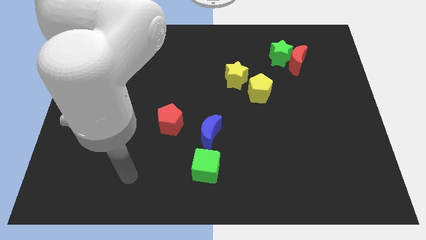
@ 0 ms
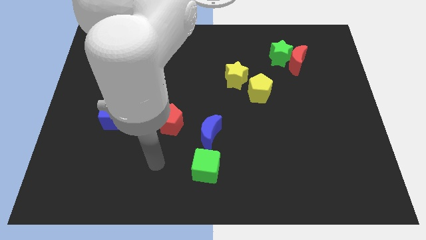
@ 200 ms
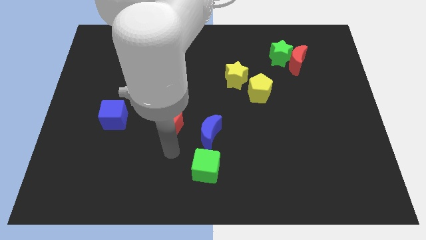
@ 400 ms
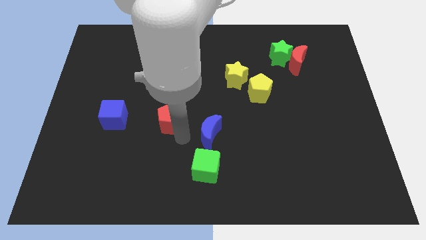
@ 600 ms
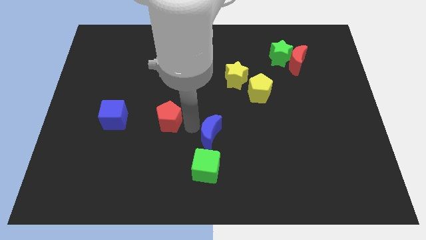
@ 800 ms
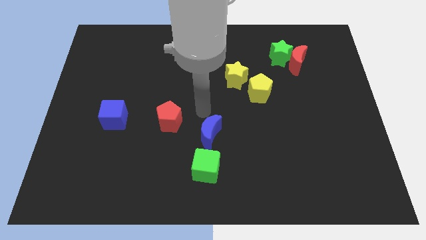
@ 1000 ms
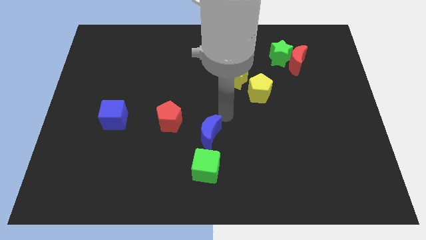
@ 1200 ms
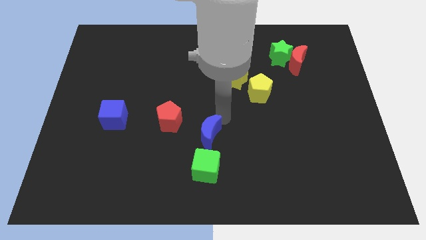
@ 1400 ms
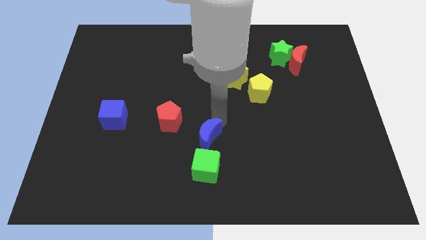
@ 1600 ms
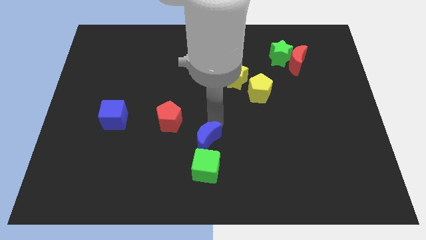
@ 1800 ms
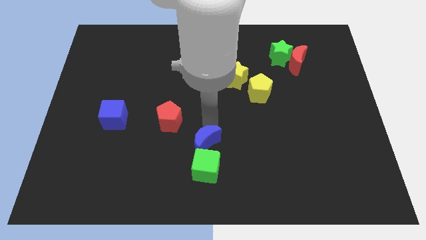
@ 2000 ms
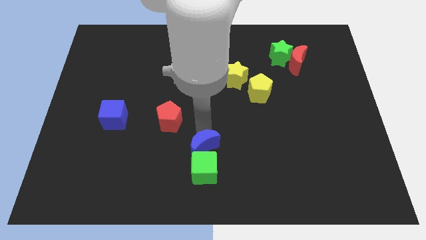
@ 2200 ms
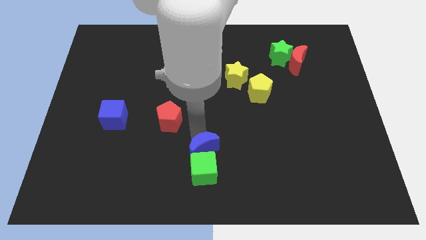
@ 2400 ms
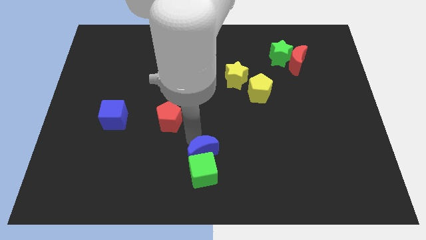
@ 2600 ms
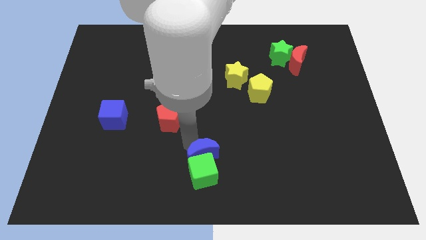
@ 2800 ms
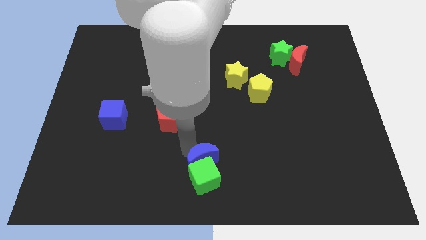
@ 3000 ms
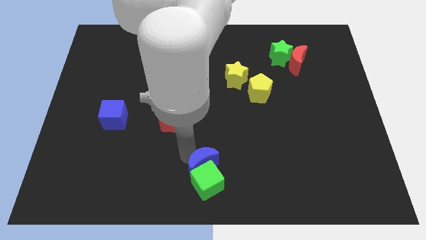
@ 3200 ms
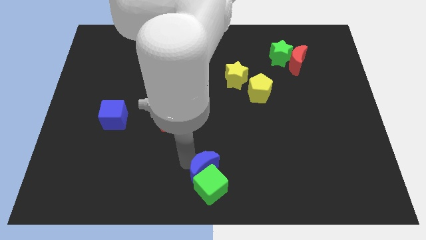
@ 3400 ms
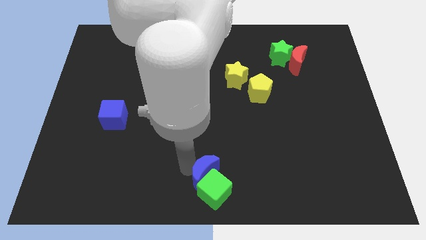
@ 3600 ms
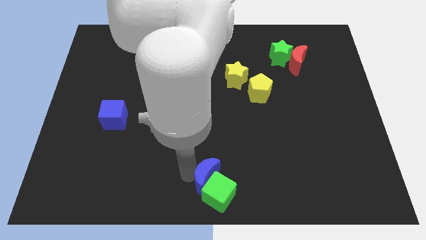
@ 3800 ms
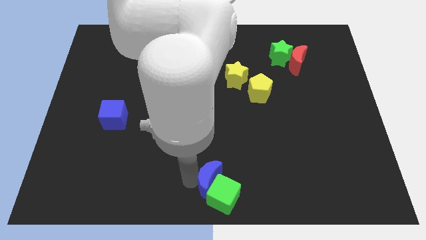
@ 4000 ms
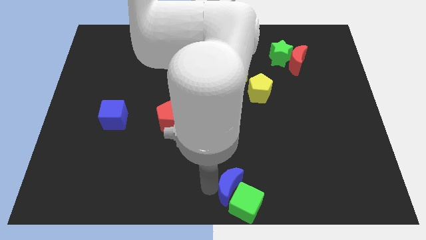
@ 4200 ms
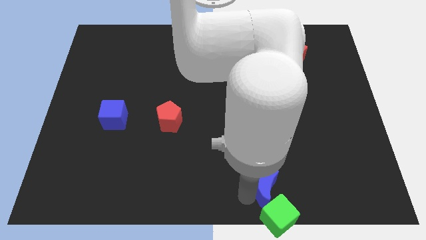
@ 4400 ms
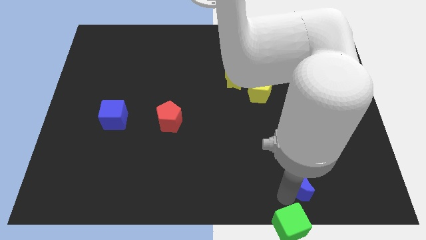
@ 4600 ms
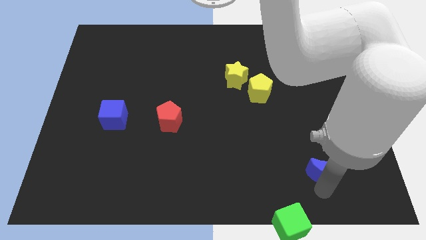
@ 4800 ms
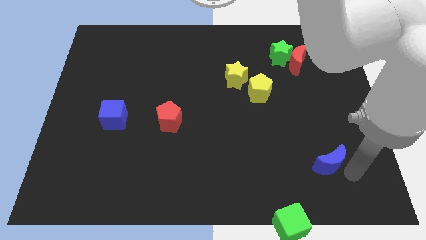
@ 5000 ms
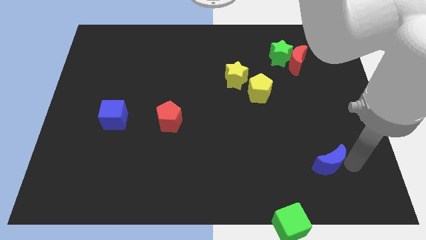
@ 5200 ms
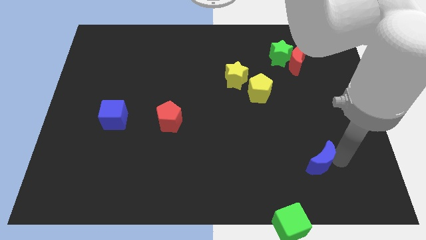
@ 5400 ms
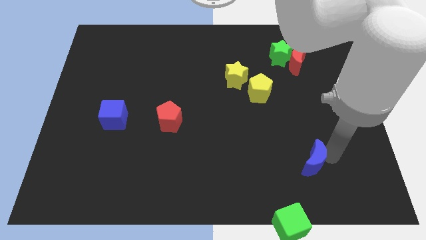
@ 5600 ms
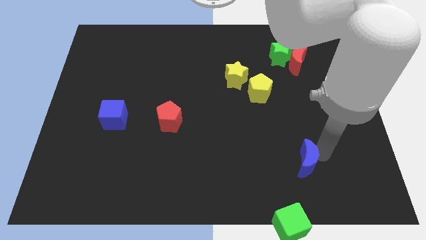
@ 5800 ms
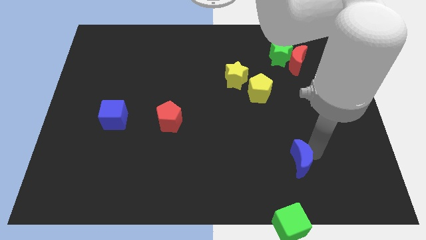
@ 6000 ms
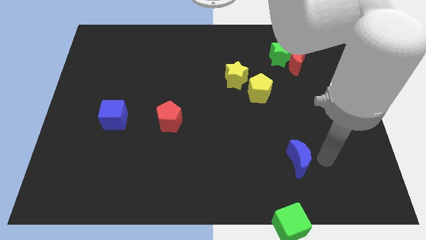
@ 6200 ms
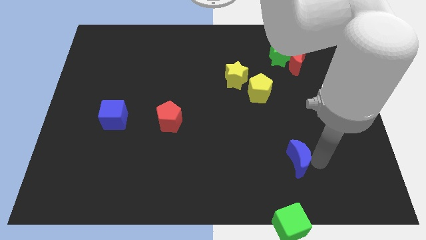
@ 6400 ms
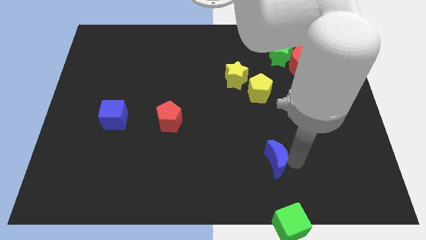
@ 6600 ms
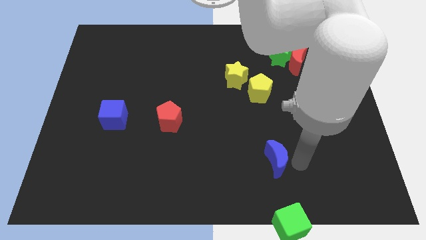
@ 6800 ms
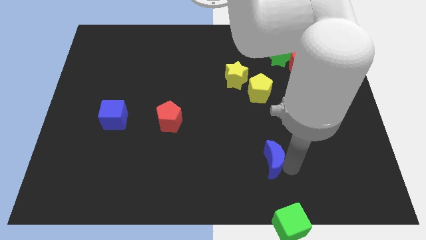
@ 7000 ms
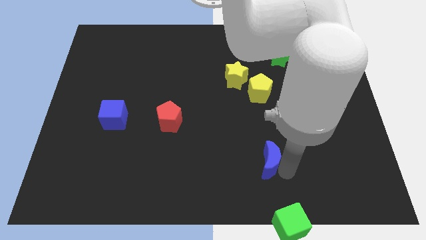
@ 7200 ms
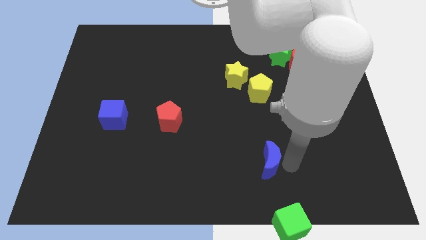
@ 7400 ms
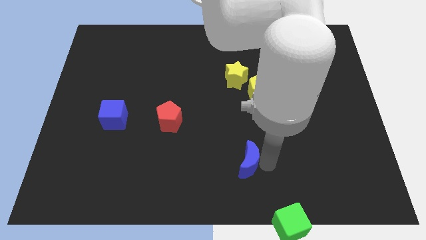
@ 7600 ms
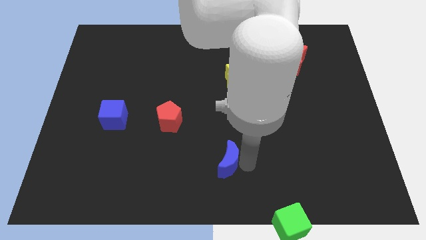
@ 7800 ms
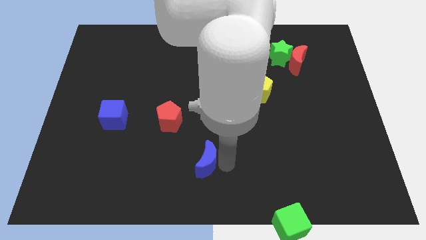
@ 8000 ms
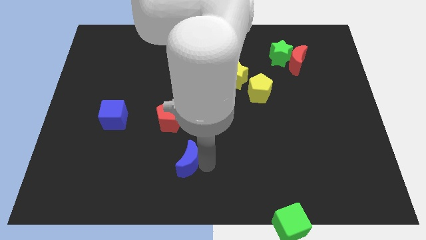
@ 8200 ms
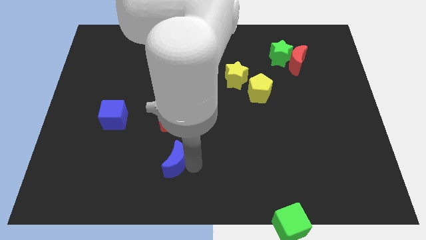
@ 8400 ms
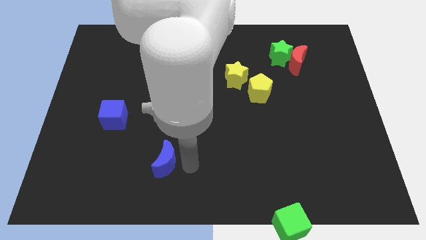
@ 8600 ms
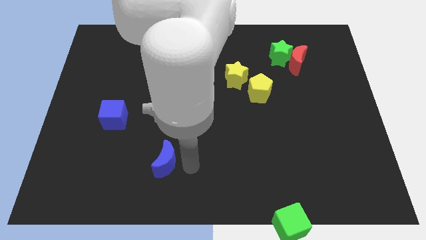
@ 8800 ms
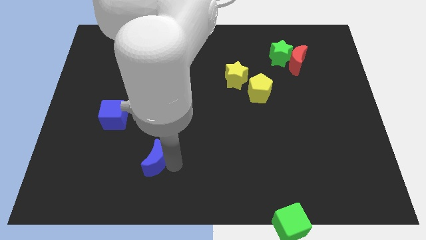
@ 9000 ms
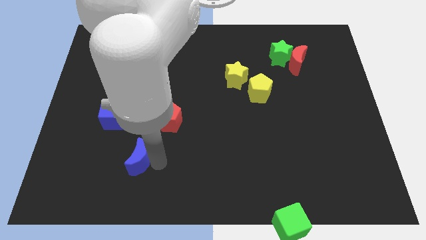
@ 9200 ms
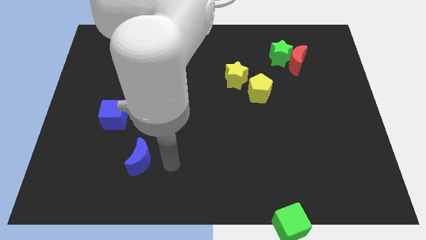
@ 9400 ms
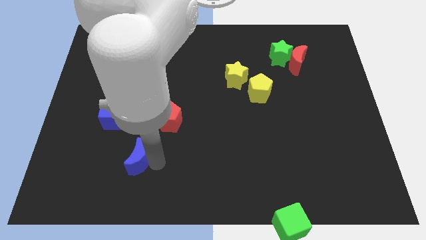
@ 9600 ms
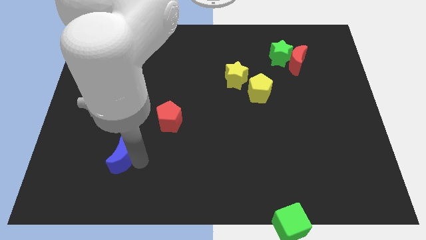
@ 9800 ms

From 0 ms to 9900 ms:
slide the blue moon to the bottom of the blue cube

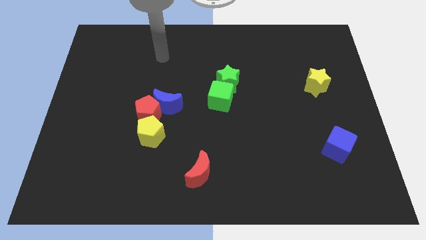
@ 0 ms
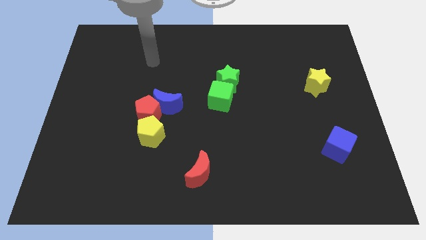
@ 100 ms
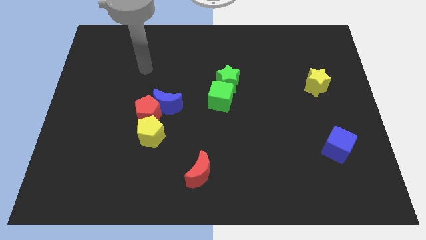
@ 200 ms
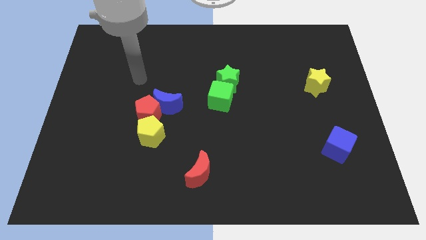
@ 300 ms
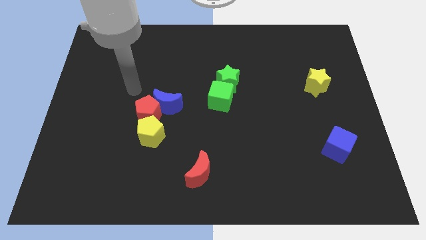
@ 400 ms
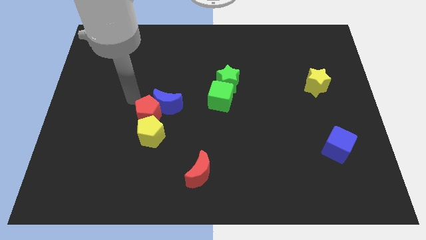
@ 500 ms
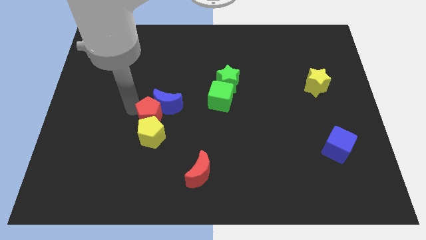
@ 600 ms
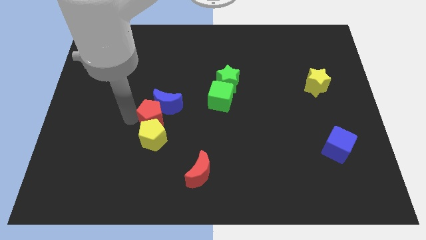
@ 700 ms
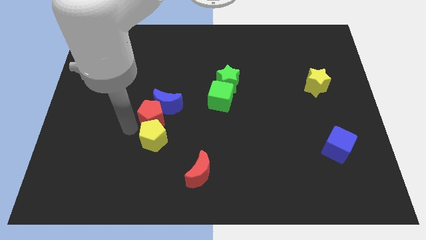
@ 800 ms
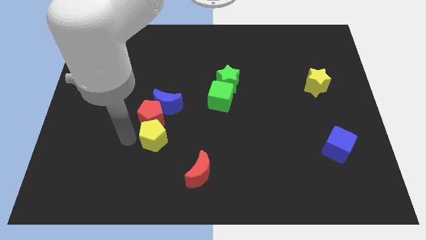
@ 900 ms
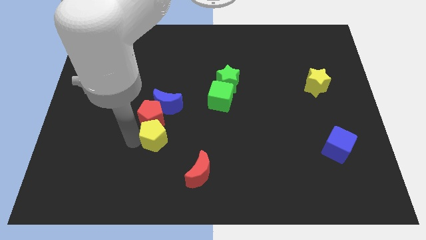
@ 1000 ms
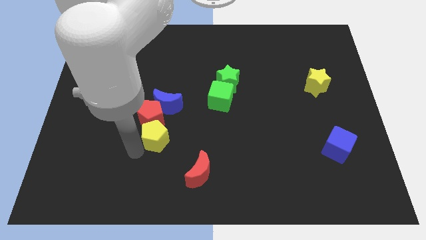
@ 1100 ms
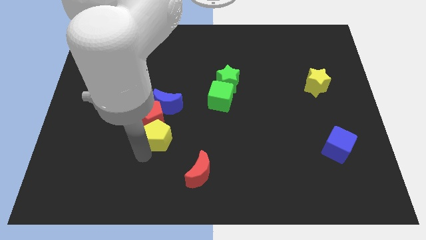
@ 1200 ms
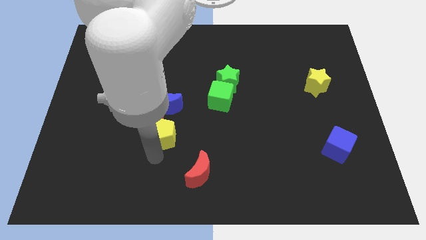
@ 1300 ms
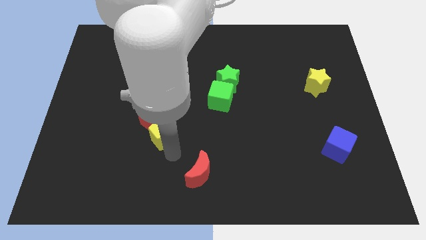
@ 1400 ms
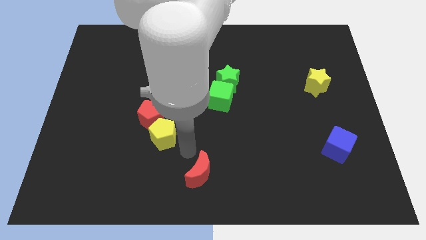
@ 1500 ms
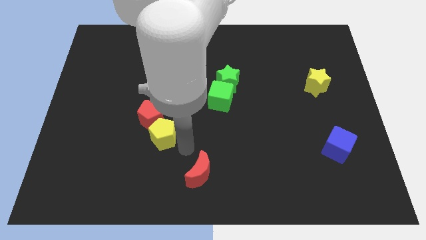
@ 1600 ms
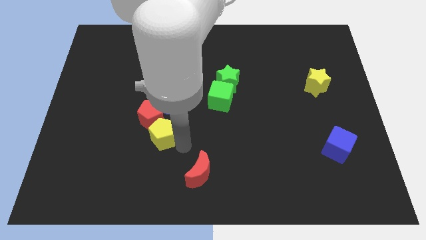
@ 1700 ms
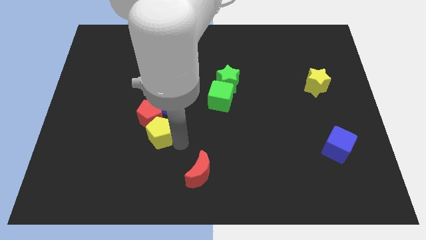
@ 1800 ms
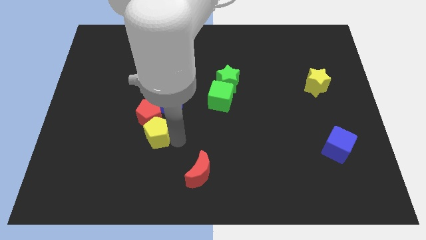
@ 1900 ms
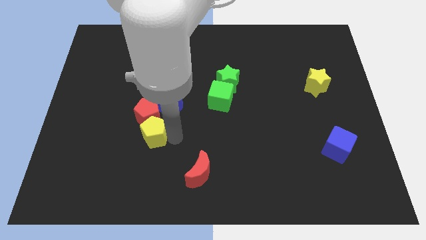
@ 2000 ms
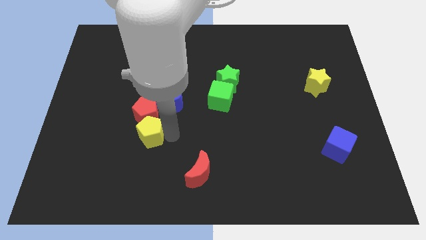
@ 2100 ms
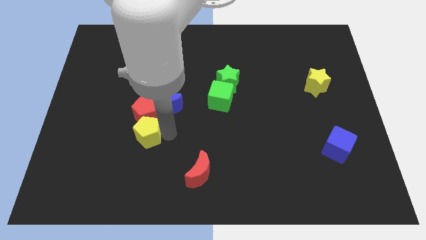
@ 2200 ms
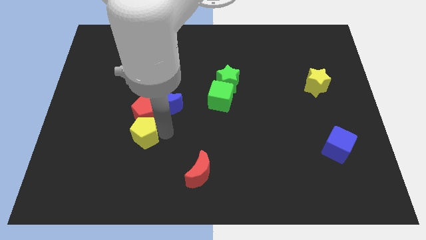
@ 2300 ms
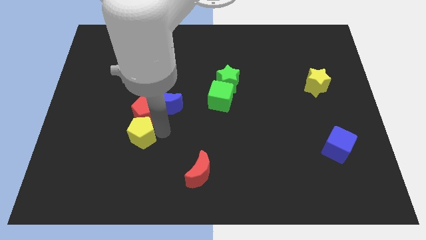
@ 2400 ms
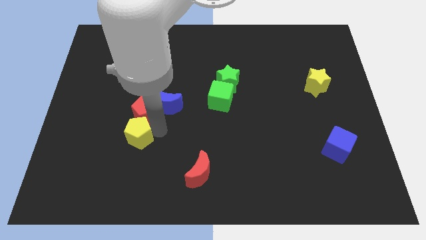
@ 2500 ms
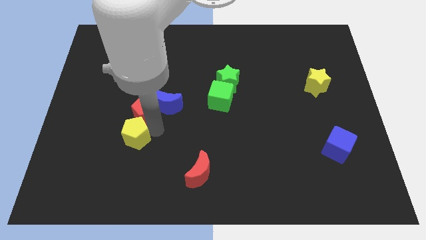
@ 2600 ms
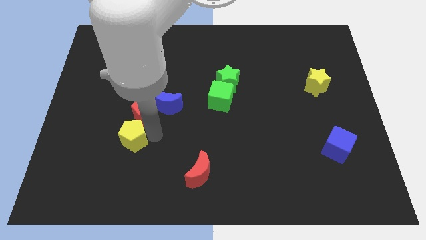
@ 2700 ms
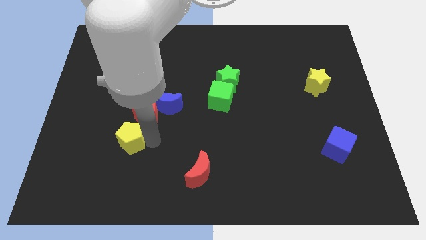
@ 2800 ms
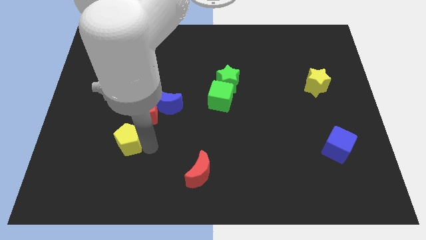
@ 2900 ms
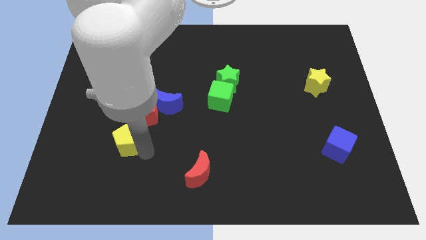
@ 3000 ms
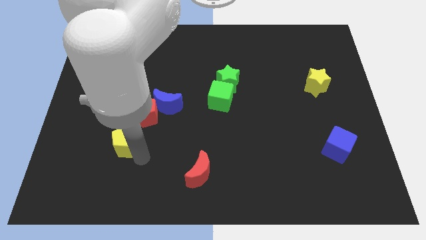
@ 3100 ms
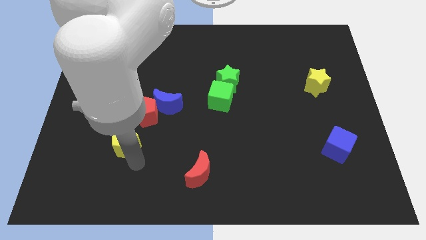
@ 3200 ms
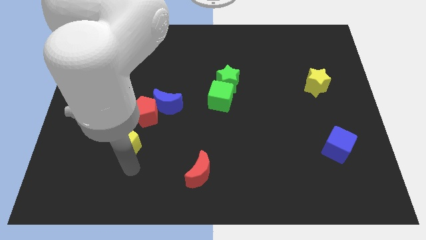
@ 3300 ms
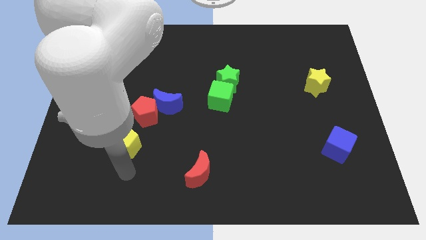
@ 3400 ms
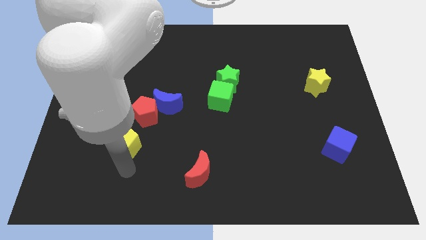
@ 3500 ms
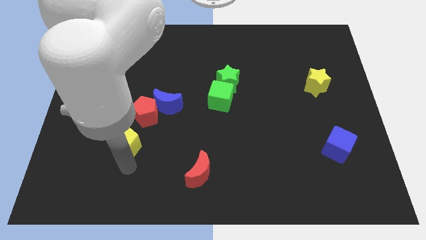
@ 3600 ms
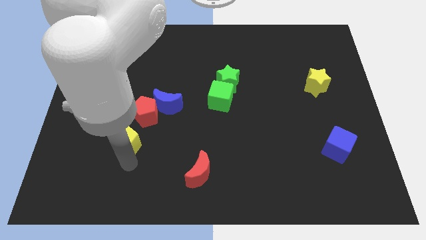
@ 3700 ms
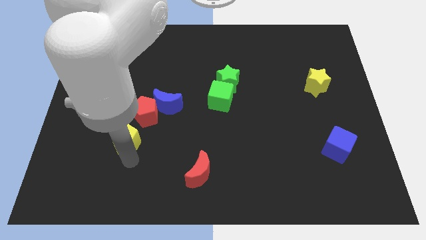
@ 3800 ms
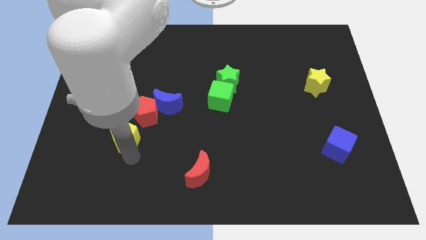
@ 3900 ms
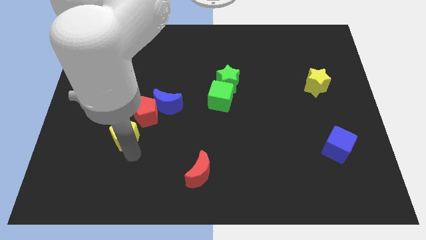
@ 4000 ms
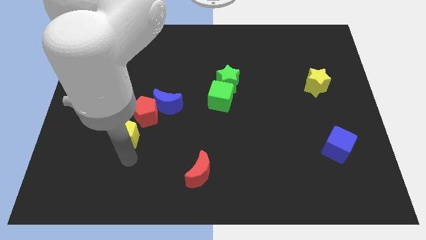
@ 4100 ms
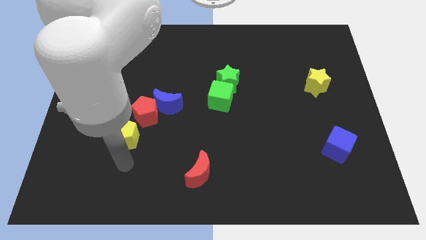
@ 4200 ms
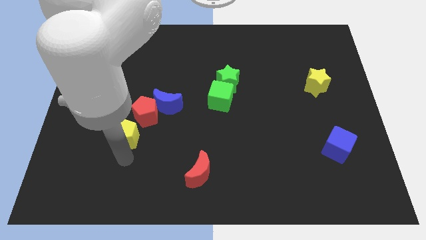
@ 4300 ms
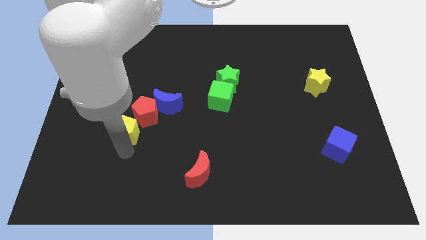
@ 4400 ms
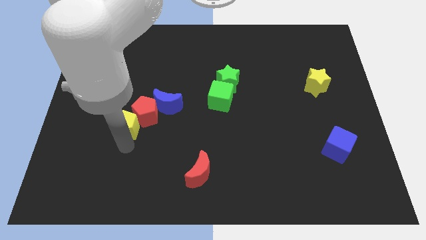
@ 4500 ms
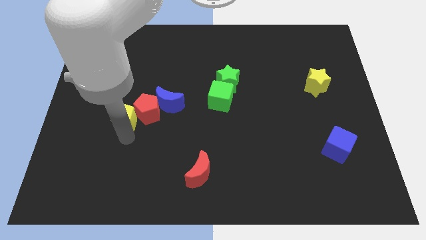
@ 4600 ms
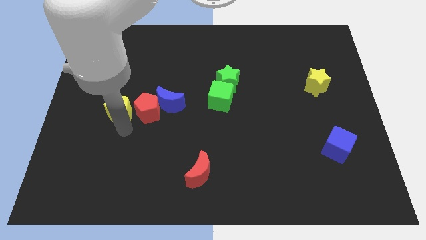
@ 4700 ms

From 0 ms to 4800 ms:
move the yellow pentagon diagonally up and to the left of the red pentagon
